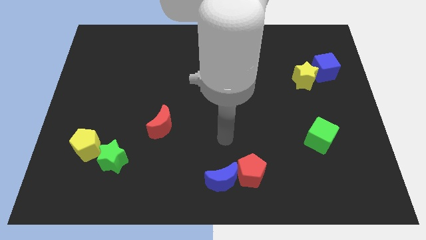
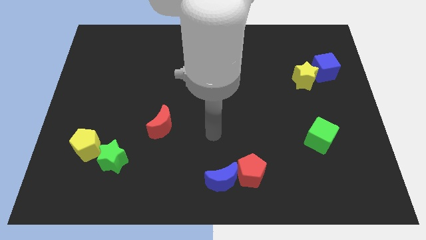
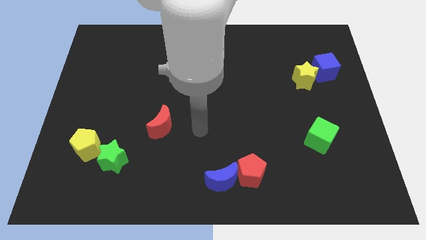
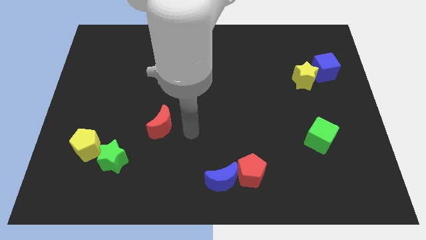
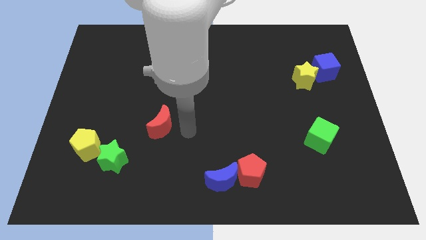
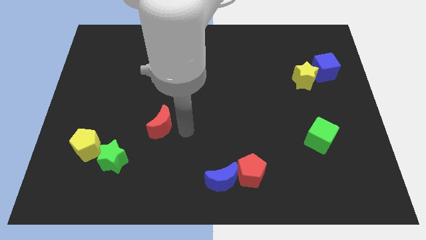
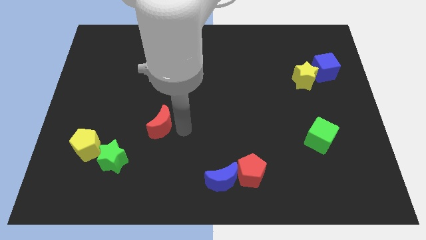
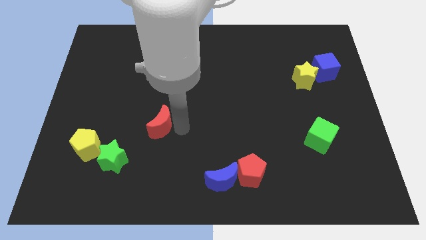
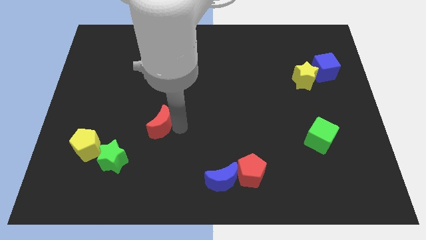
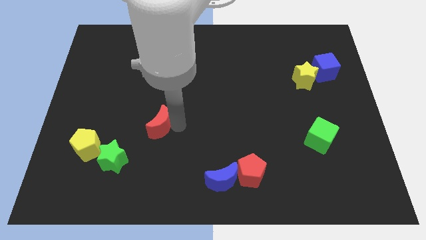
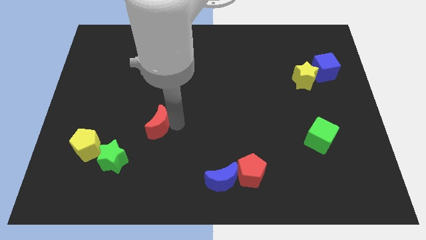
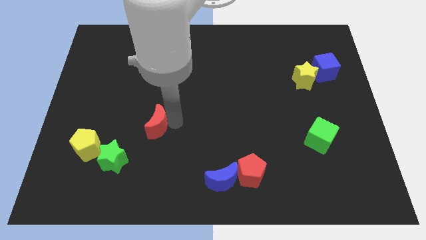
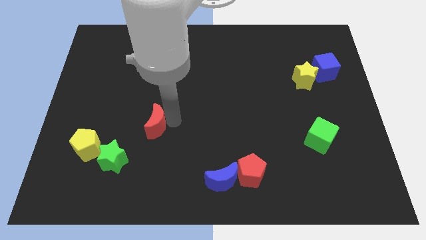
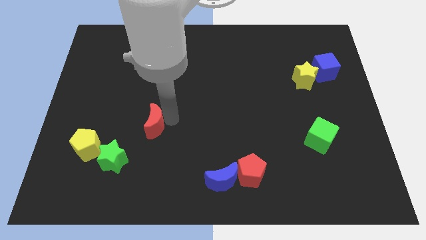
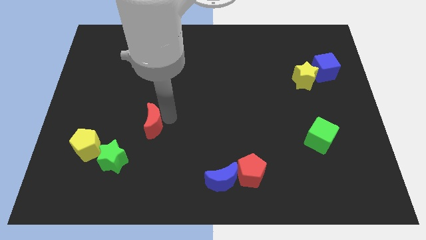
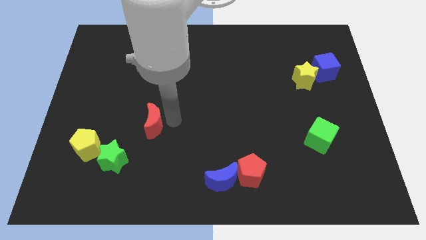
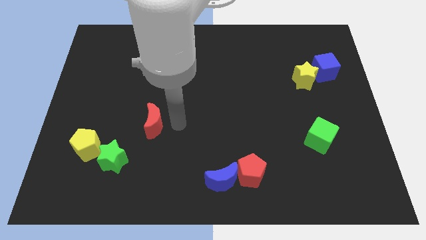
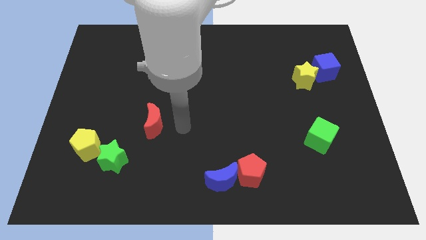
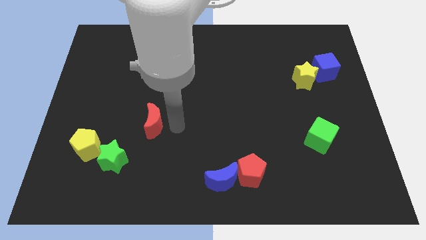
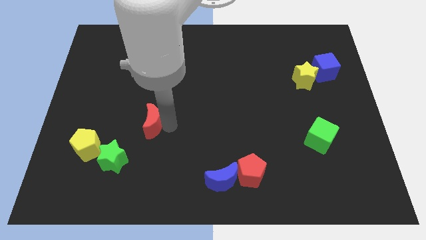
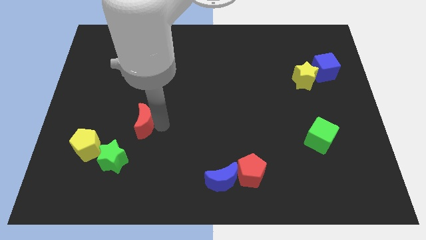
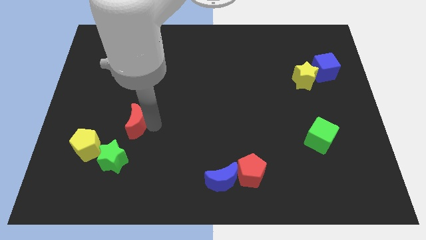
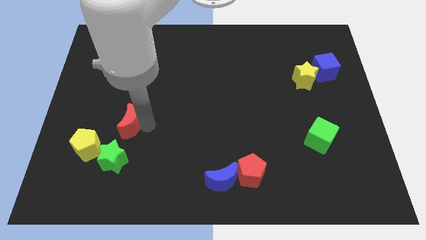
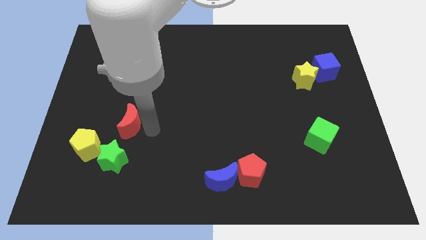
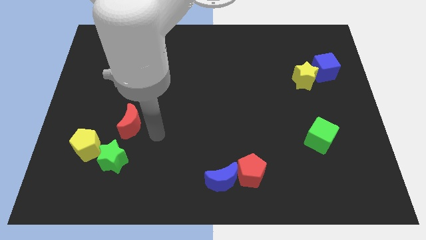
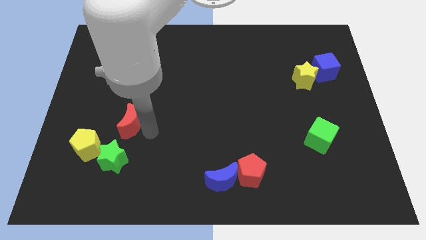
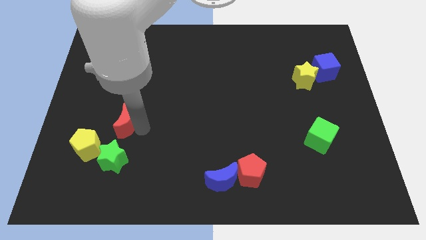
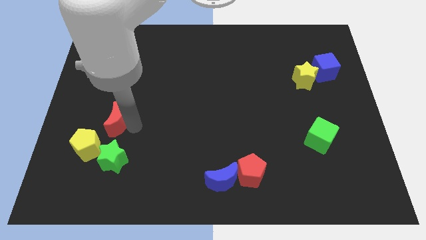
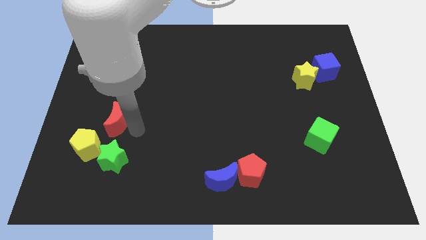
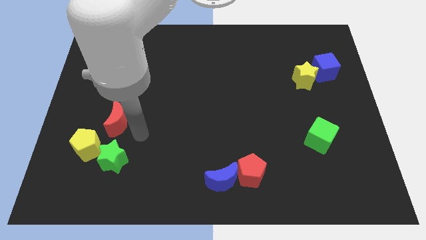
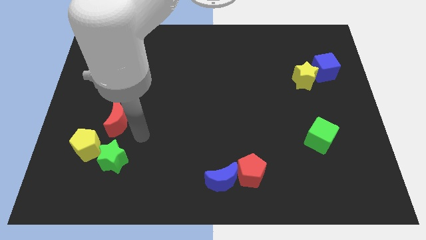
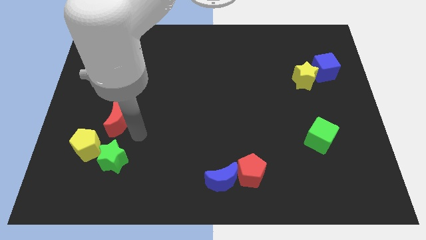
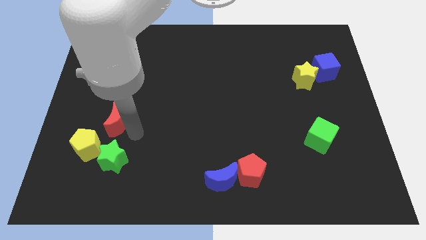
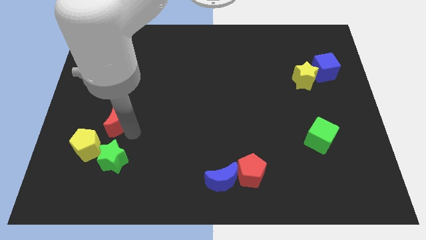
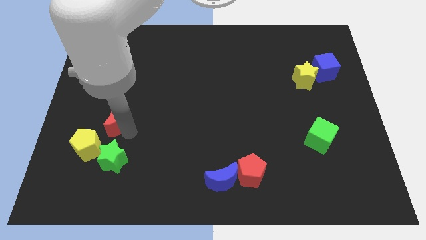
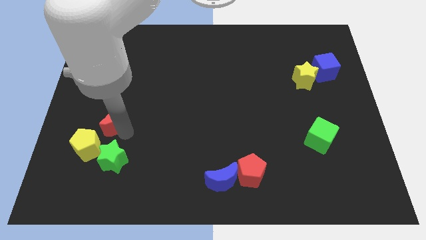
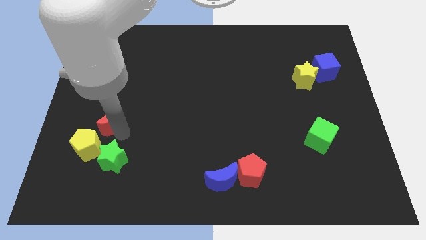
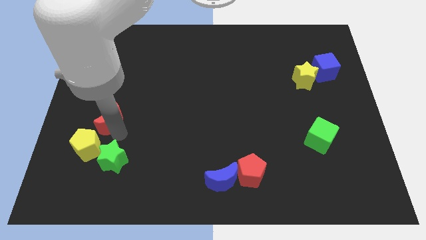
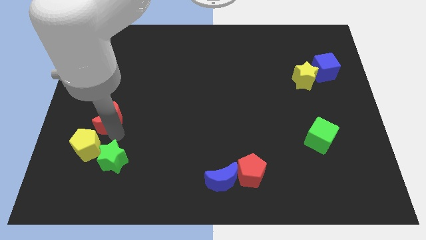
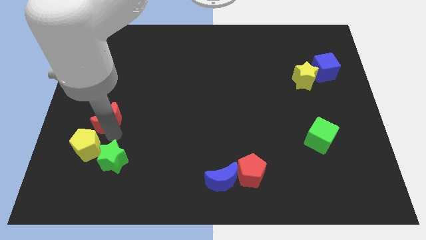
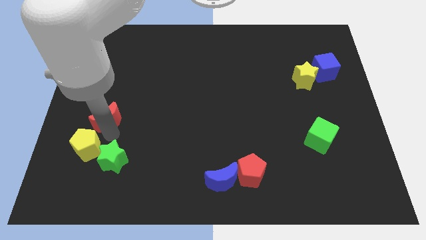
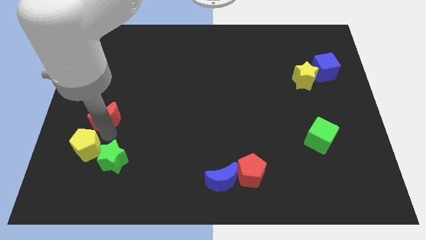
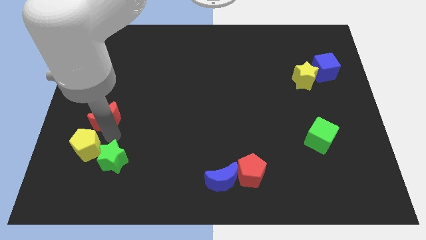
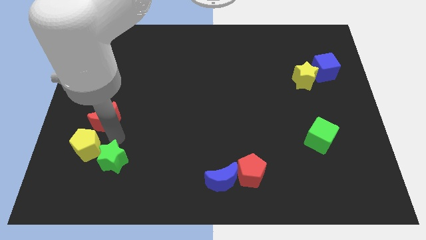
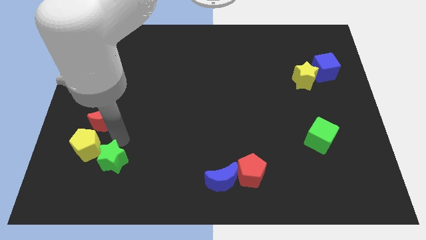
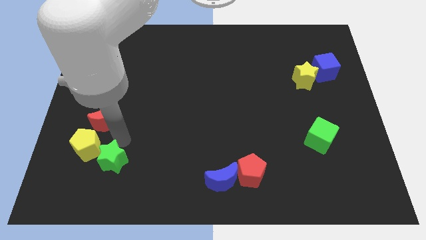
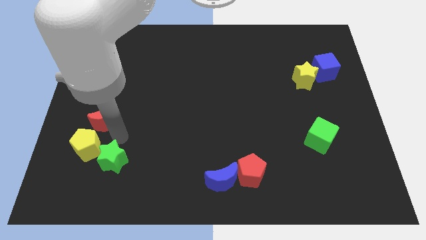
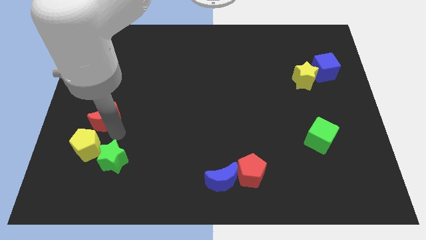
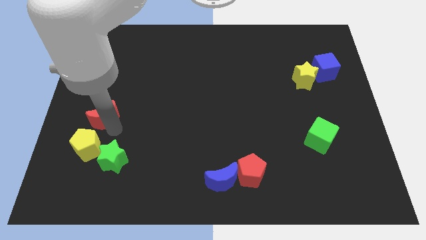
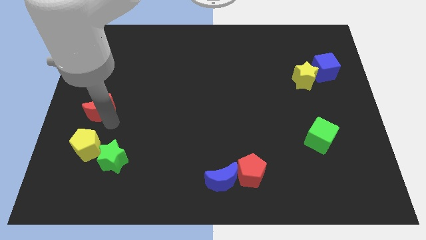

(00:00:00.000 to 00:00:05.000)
move the red moon to the left side of the board

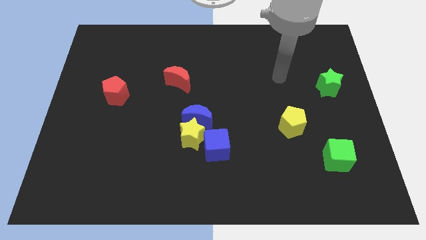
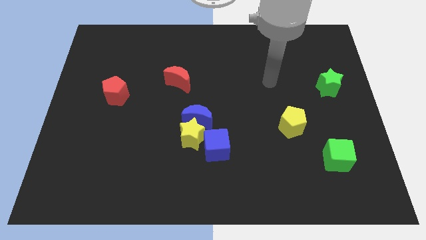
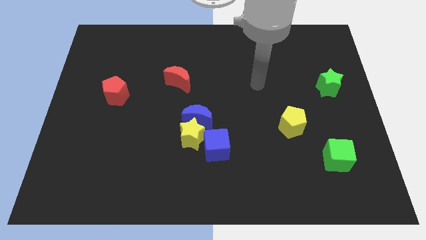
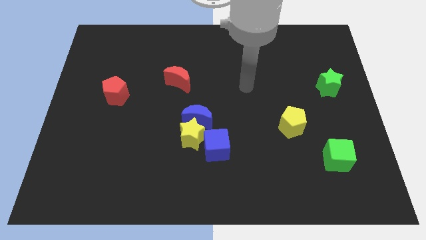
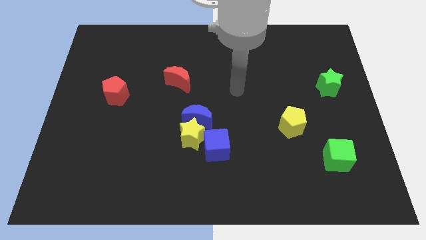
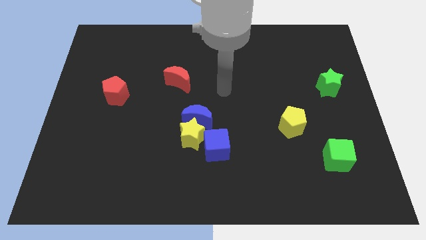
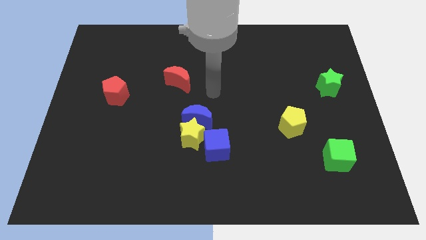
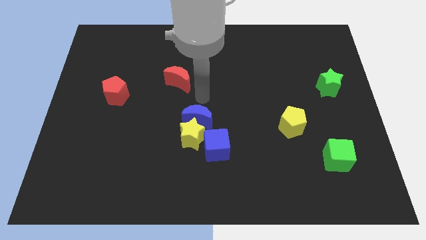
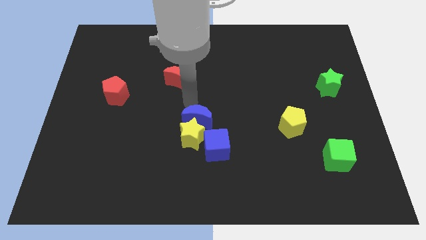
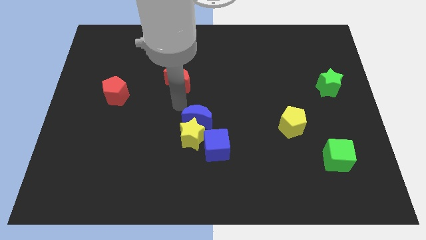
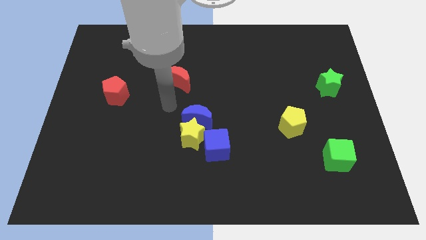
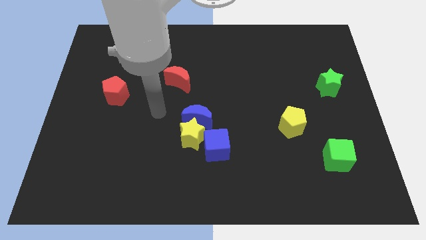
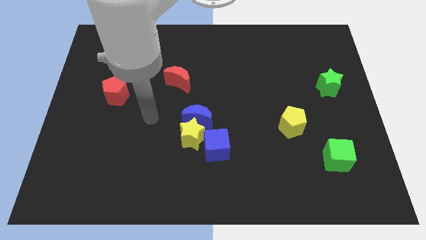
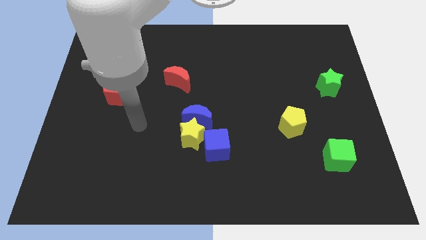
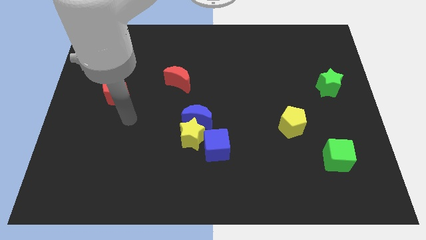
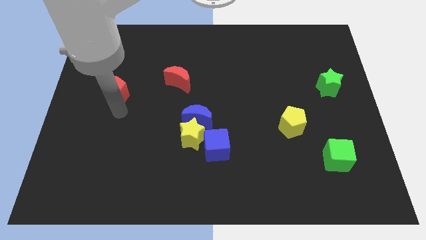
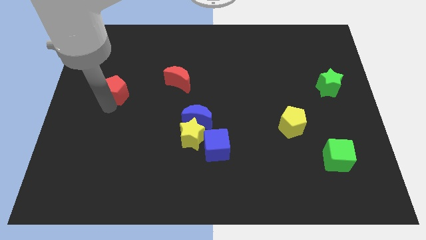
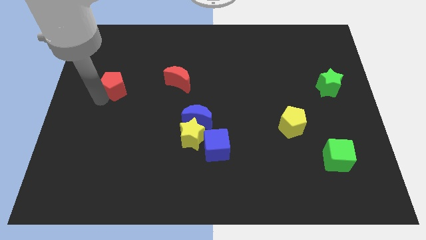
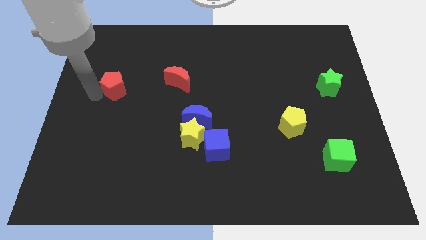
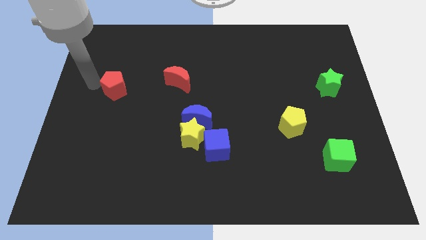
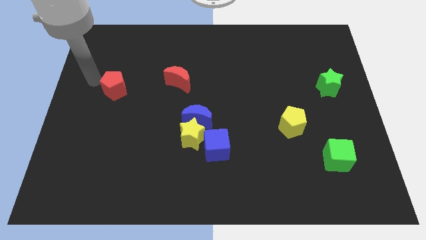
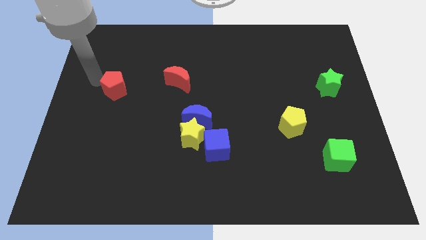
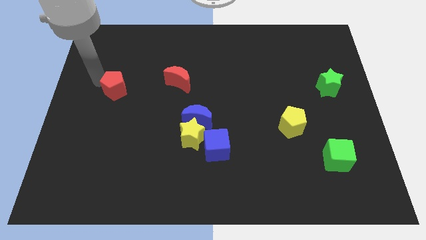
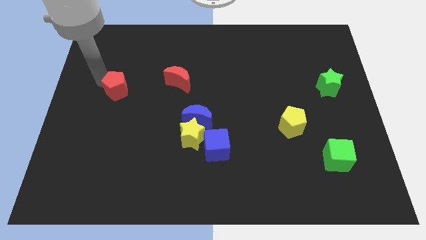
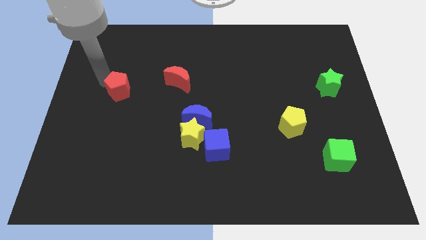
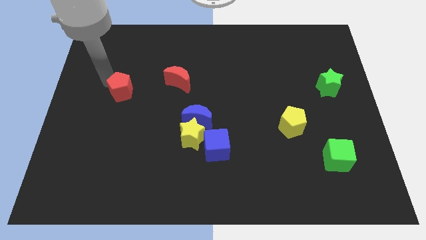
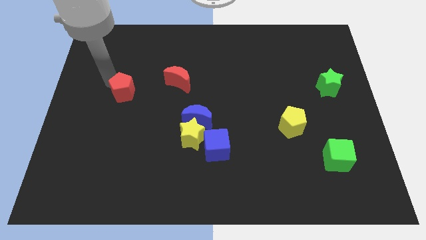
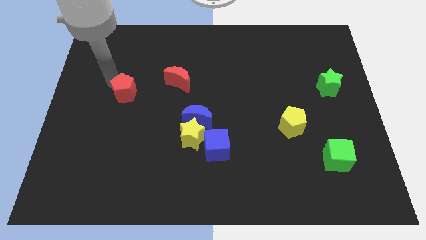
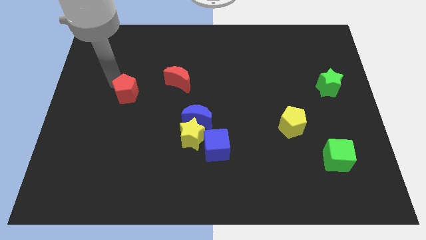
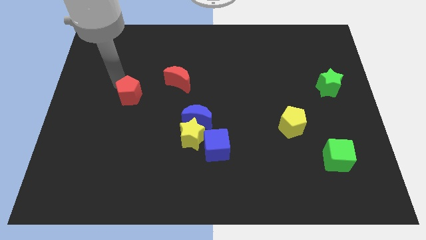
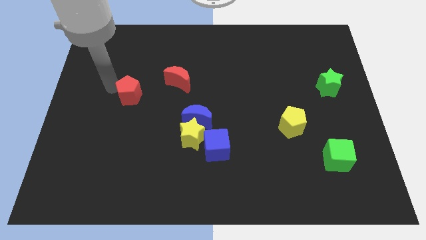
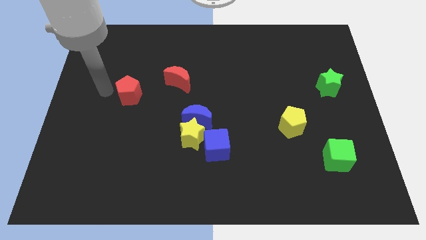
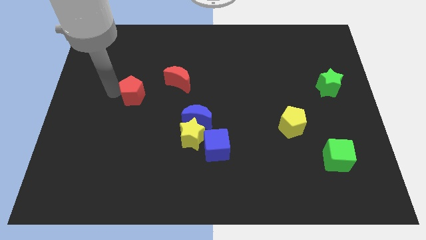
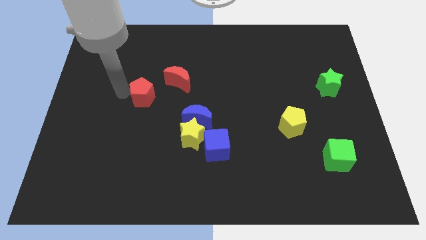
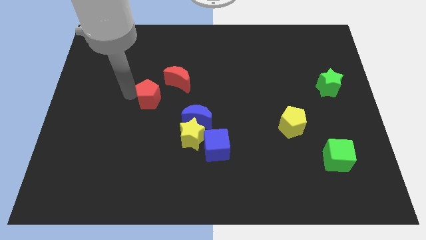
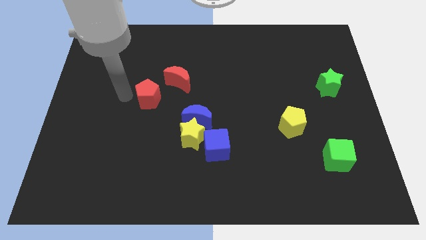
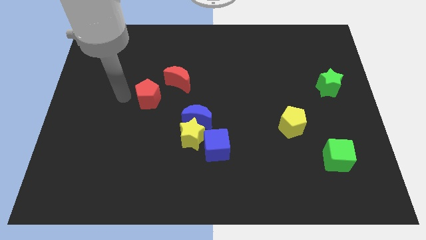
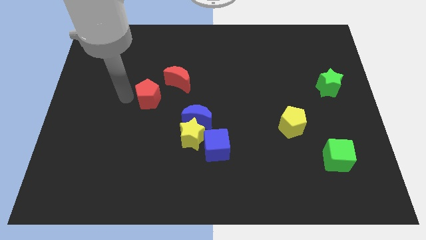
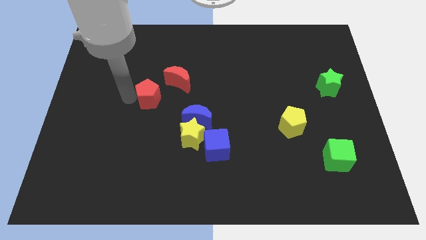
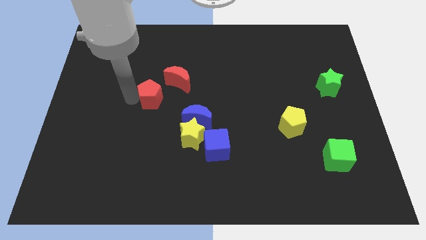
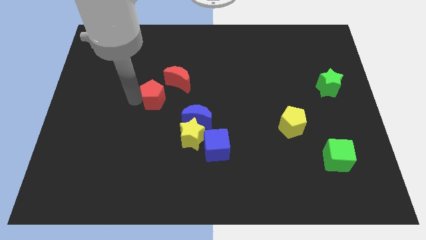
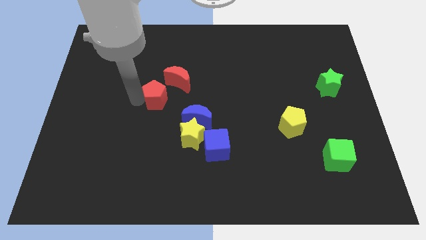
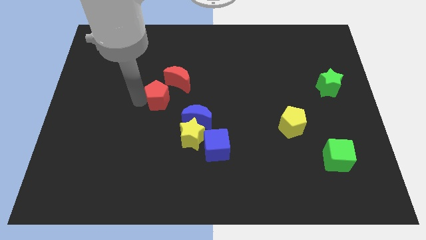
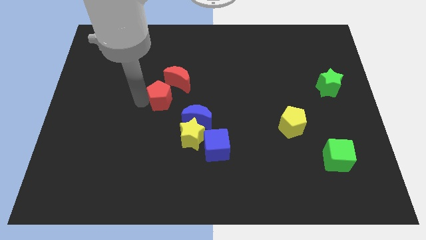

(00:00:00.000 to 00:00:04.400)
slide the red pentagon to the center
